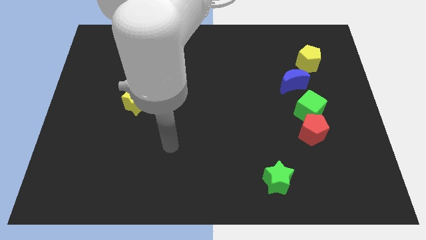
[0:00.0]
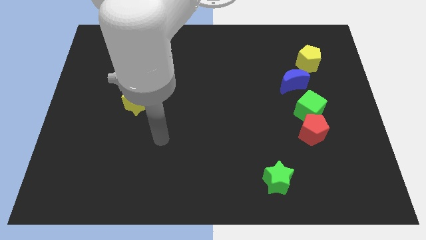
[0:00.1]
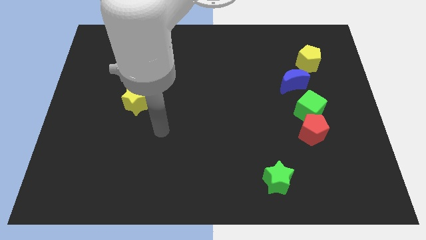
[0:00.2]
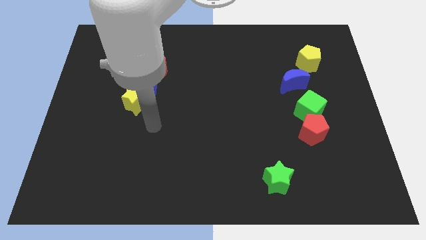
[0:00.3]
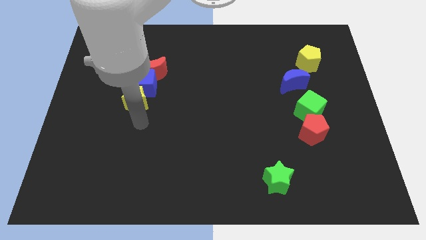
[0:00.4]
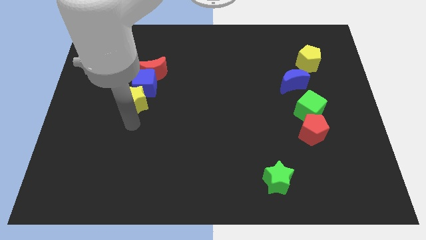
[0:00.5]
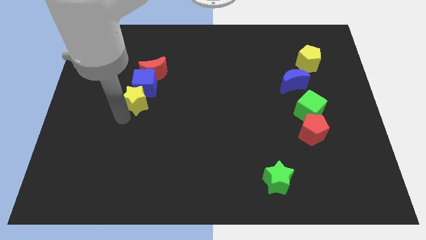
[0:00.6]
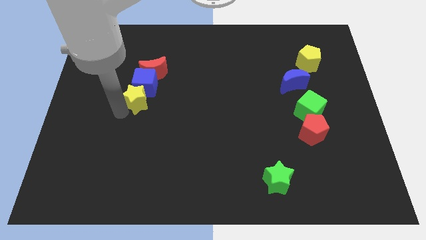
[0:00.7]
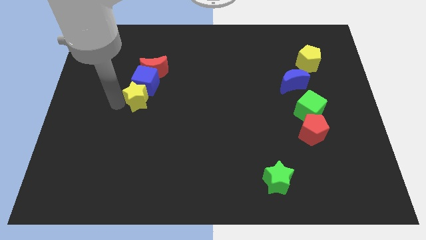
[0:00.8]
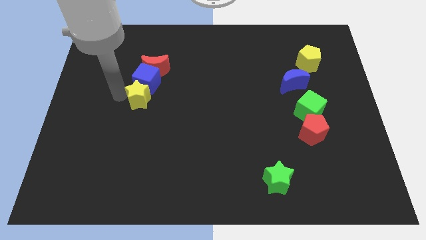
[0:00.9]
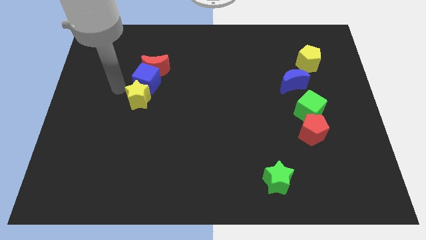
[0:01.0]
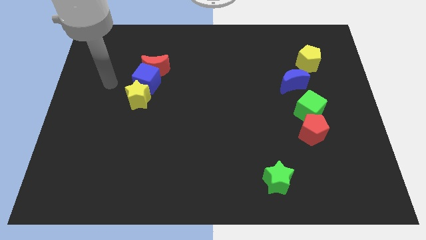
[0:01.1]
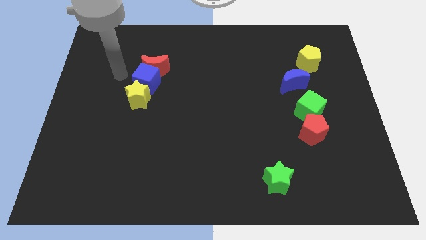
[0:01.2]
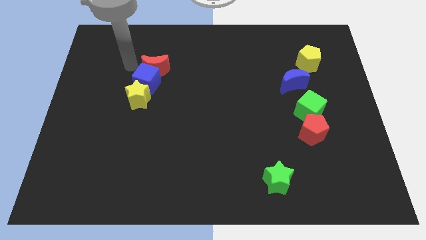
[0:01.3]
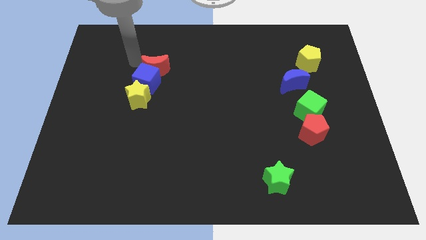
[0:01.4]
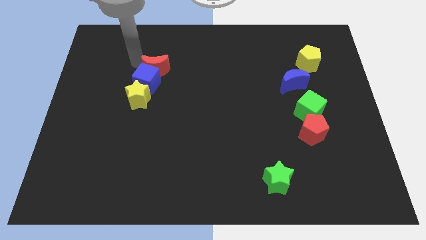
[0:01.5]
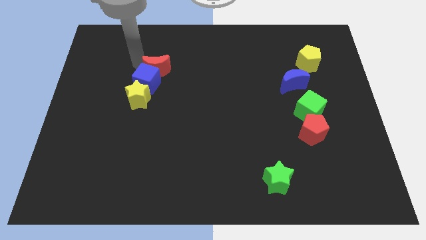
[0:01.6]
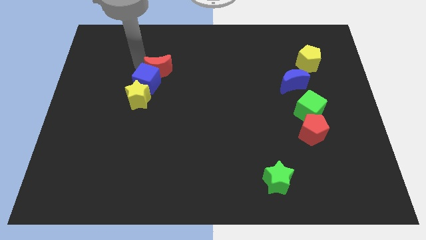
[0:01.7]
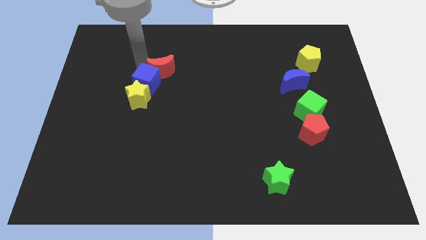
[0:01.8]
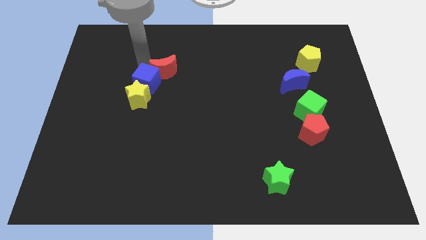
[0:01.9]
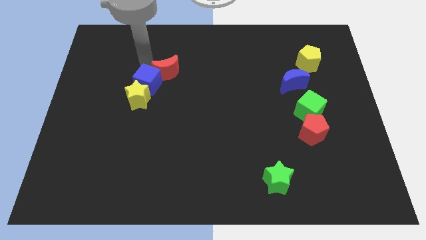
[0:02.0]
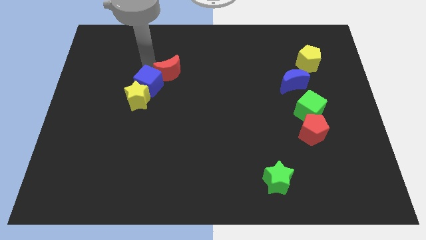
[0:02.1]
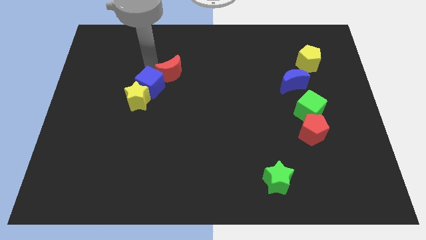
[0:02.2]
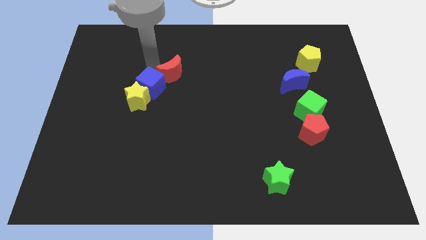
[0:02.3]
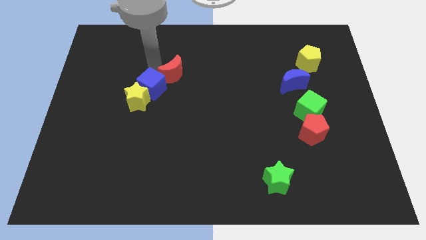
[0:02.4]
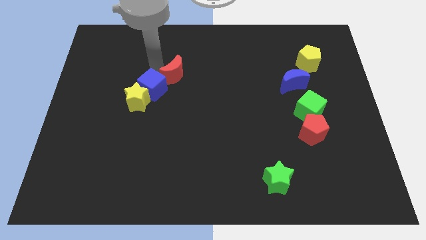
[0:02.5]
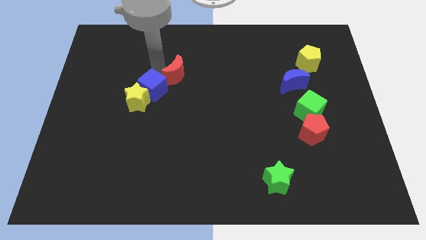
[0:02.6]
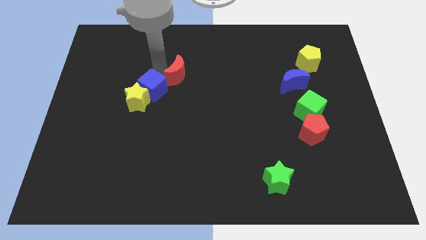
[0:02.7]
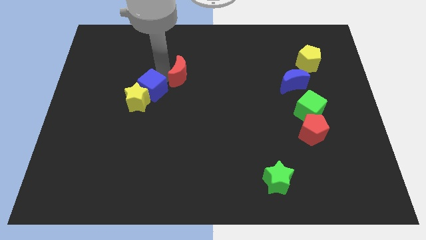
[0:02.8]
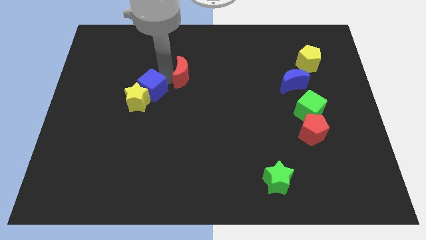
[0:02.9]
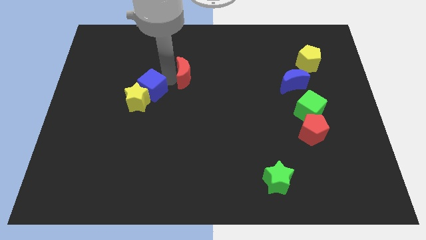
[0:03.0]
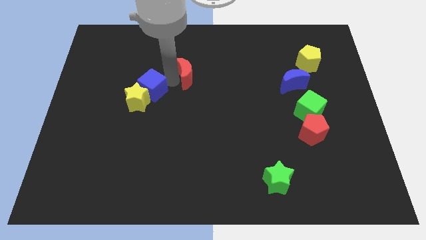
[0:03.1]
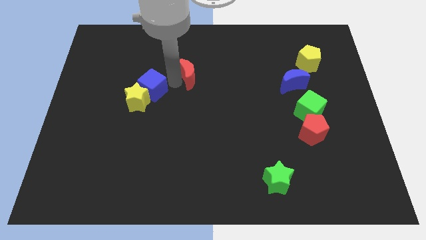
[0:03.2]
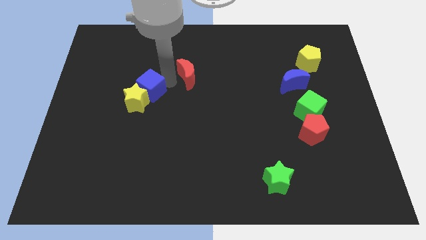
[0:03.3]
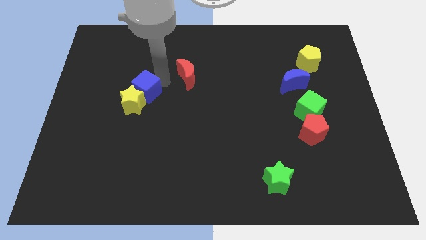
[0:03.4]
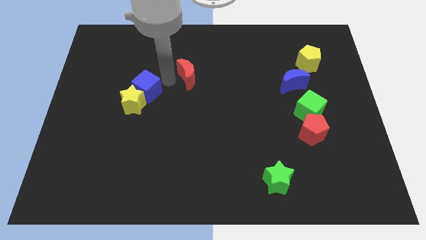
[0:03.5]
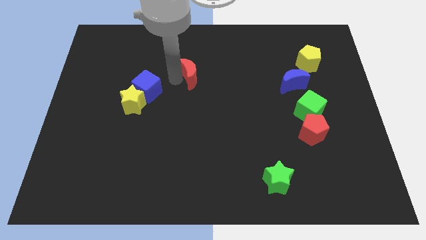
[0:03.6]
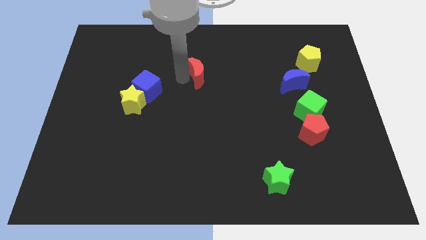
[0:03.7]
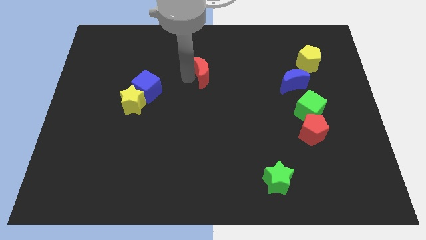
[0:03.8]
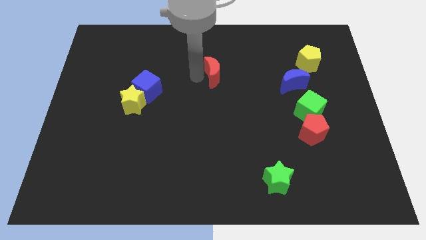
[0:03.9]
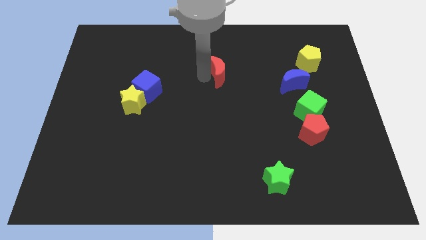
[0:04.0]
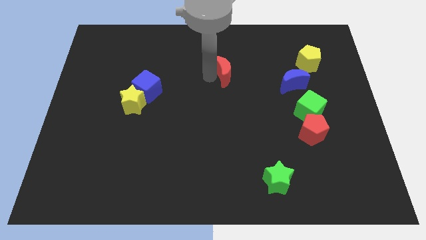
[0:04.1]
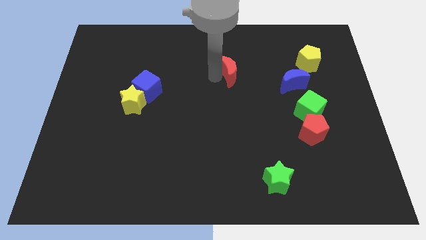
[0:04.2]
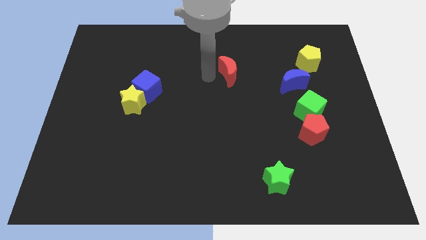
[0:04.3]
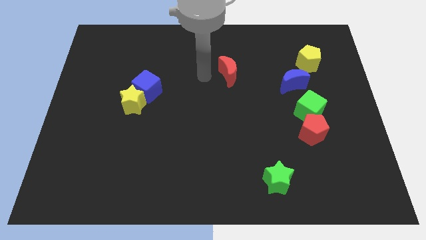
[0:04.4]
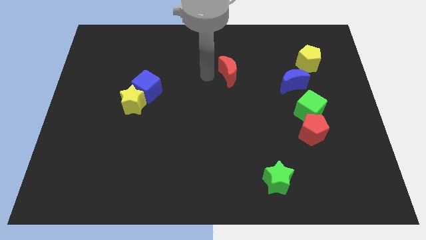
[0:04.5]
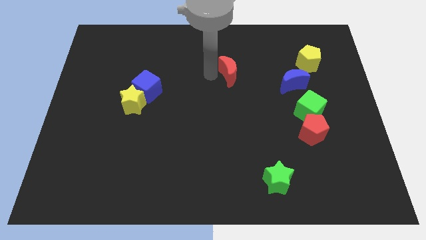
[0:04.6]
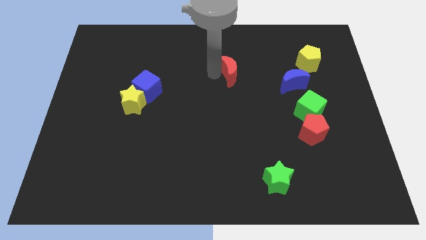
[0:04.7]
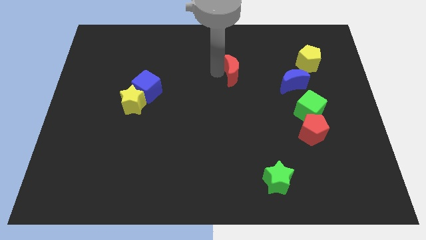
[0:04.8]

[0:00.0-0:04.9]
move the red moon right

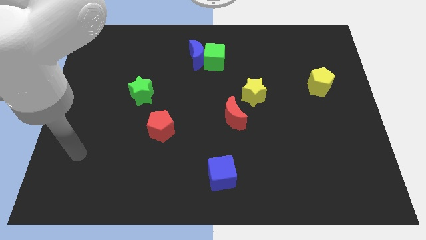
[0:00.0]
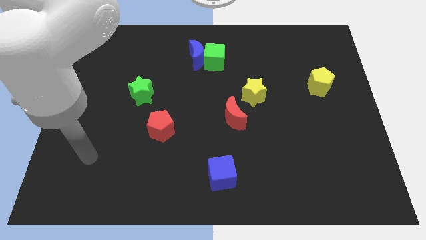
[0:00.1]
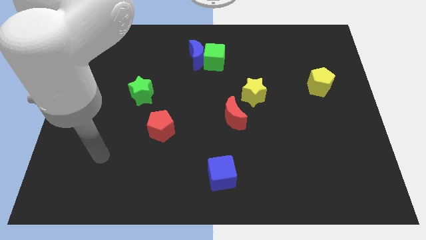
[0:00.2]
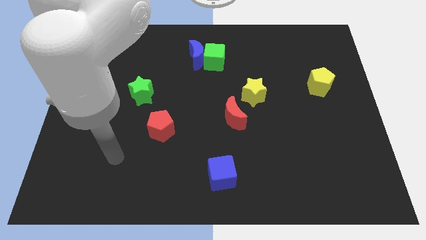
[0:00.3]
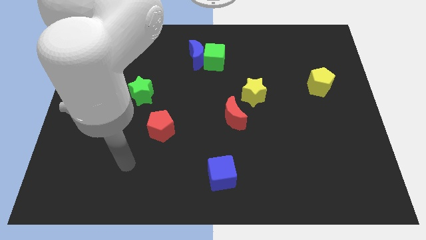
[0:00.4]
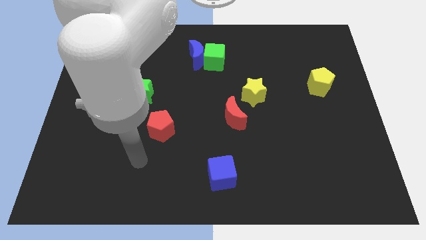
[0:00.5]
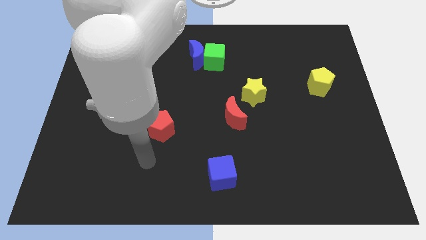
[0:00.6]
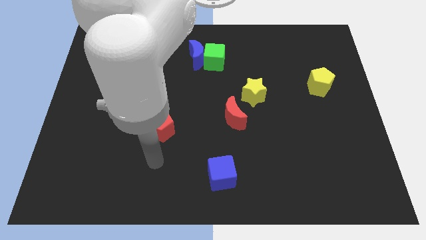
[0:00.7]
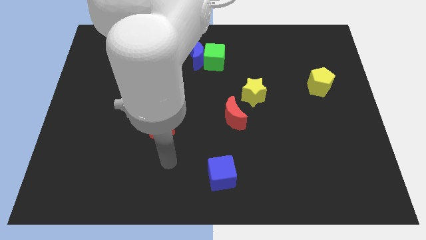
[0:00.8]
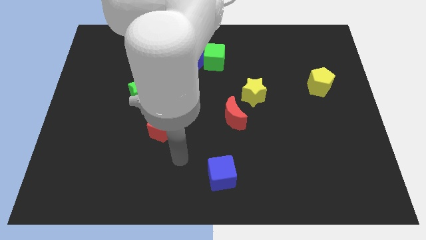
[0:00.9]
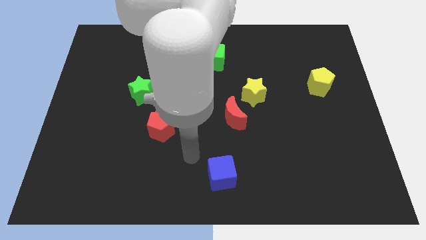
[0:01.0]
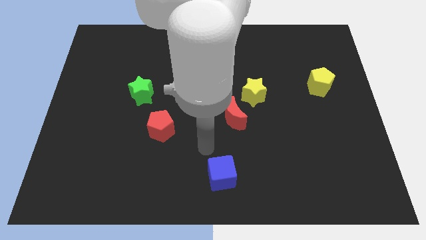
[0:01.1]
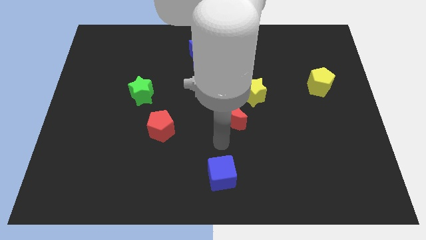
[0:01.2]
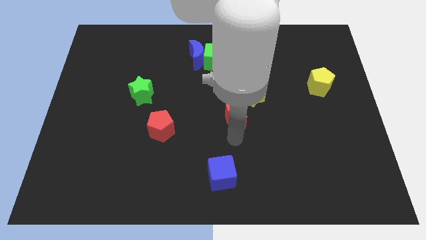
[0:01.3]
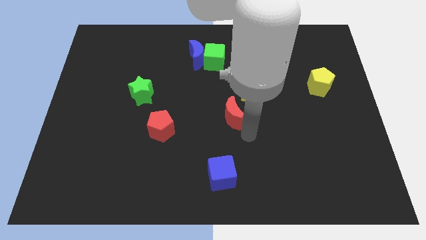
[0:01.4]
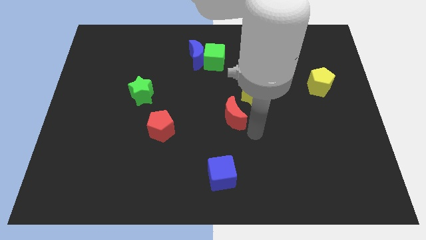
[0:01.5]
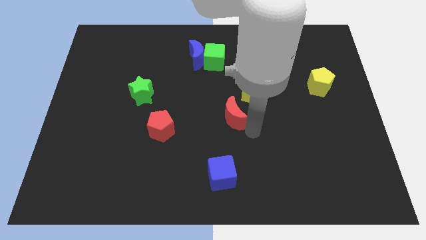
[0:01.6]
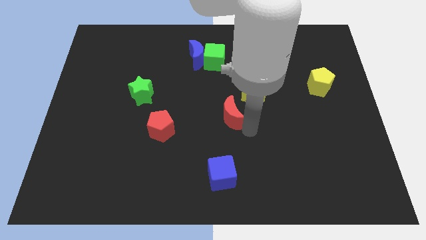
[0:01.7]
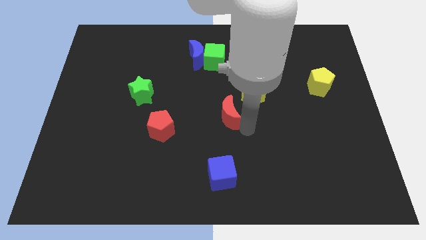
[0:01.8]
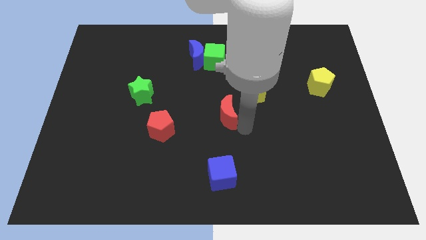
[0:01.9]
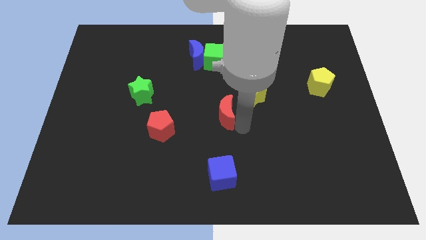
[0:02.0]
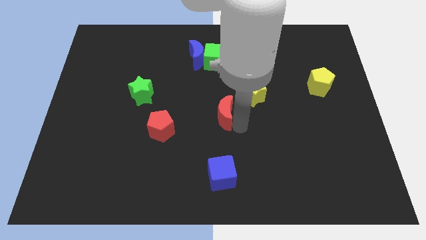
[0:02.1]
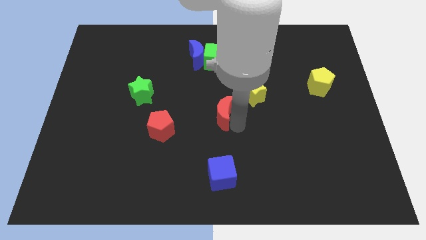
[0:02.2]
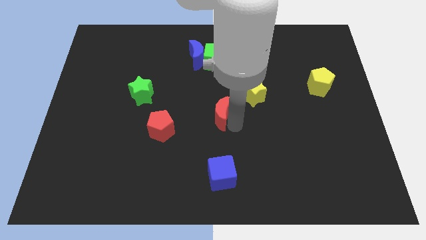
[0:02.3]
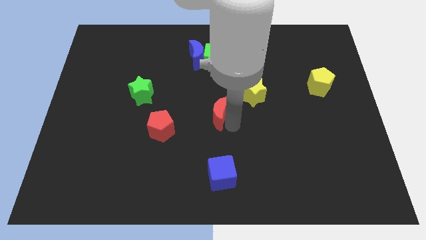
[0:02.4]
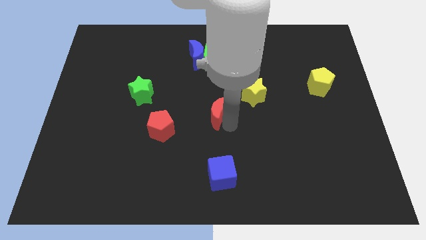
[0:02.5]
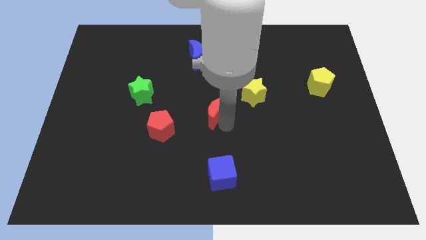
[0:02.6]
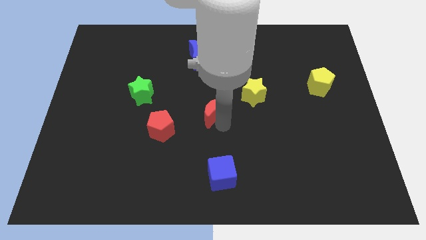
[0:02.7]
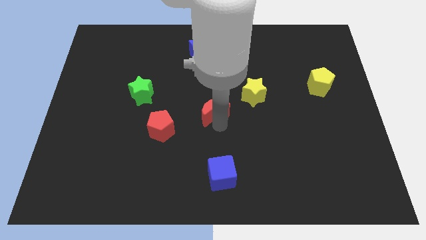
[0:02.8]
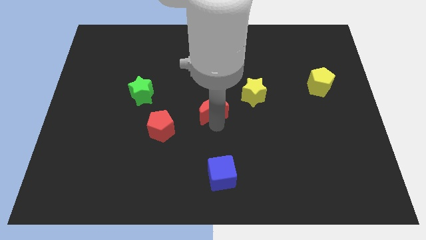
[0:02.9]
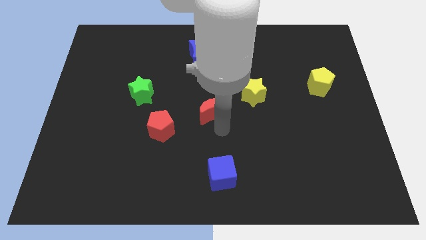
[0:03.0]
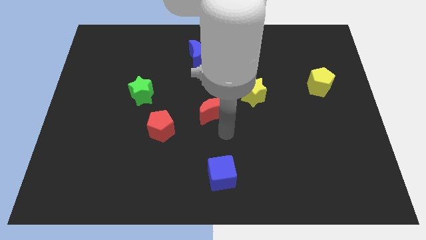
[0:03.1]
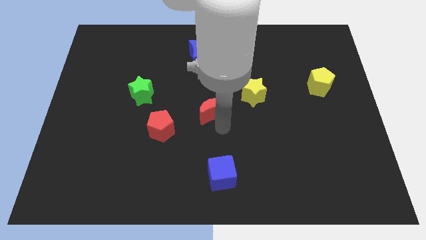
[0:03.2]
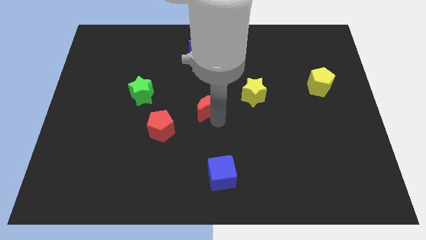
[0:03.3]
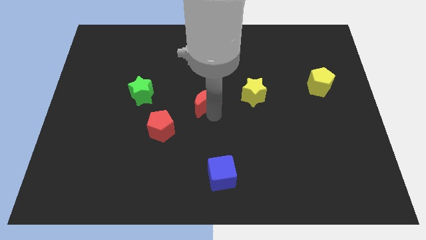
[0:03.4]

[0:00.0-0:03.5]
slide the red moon up and then to the left a bit
